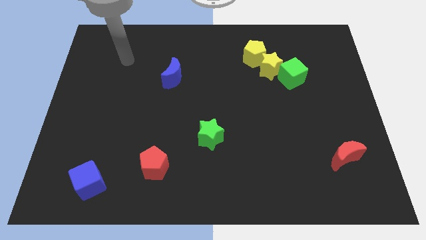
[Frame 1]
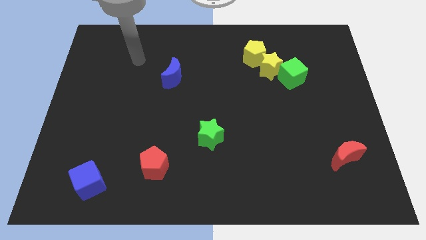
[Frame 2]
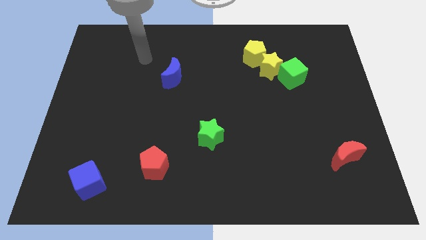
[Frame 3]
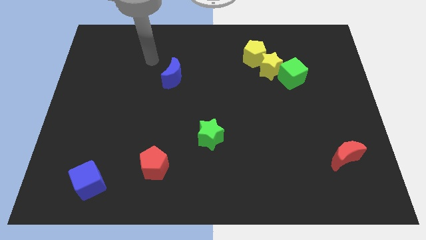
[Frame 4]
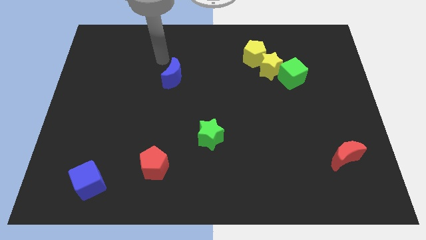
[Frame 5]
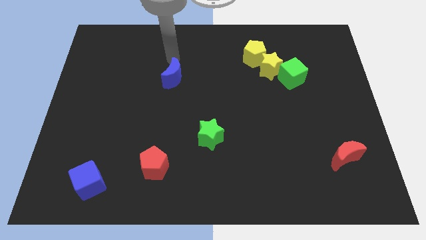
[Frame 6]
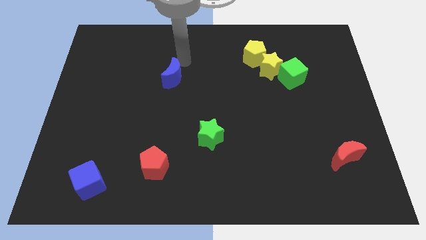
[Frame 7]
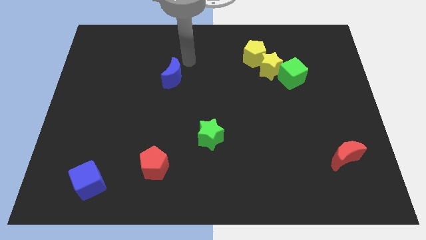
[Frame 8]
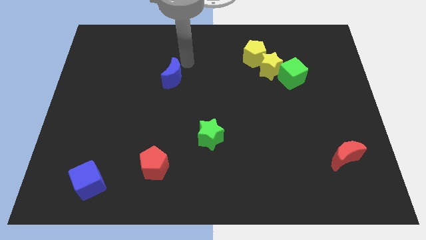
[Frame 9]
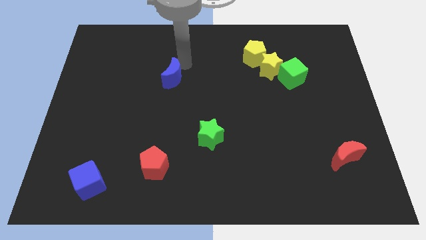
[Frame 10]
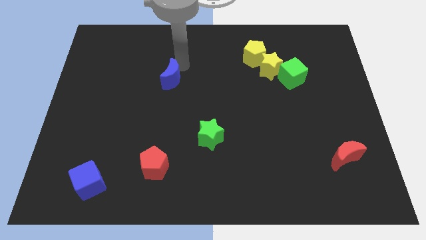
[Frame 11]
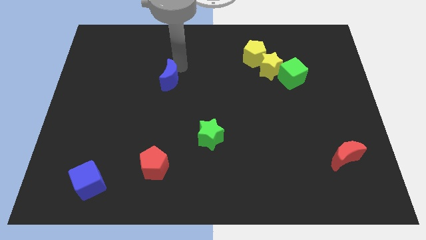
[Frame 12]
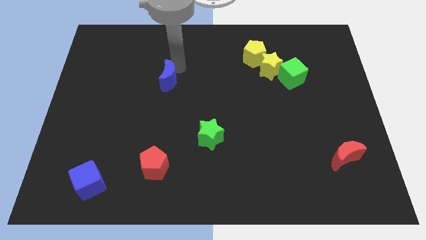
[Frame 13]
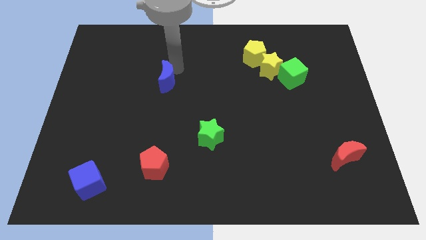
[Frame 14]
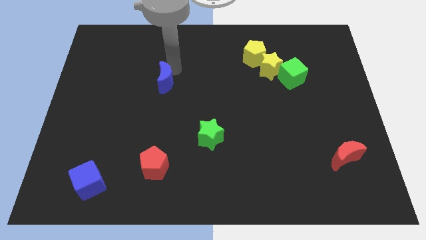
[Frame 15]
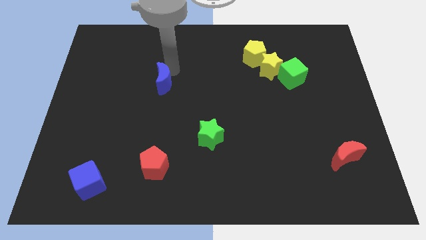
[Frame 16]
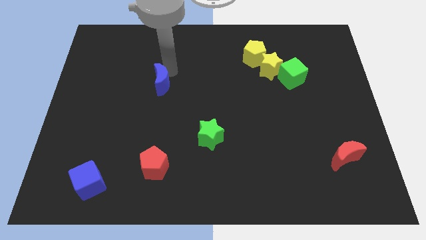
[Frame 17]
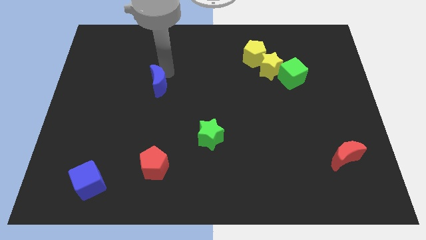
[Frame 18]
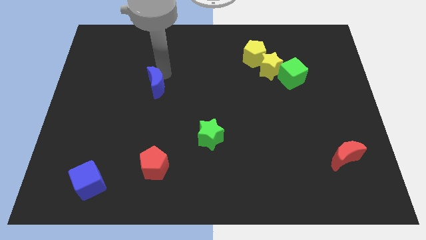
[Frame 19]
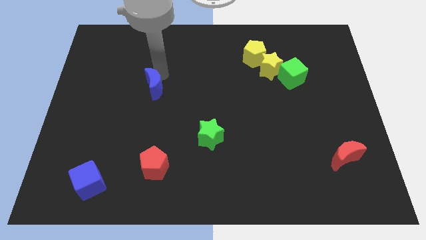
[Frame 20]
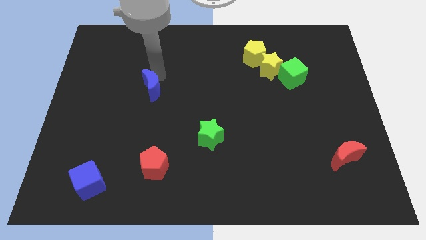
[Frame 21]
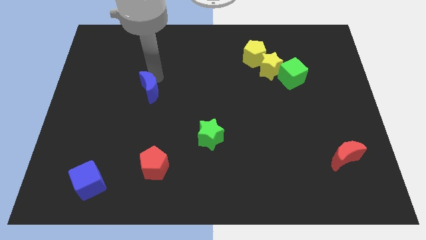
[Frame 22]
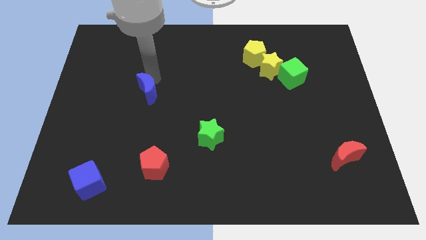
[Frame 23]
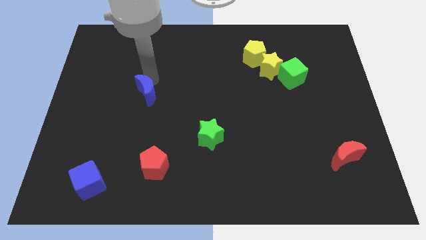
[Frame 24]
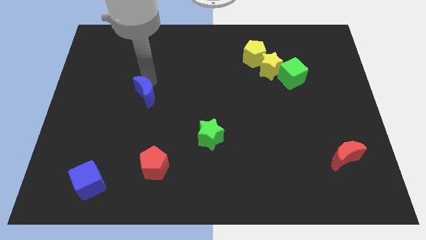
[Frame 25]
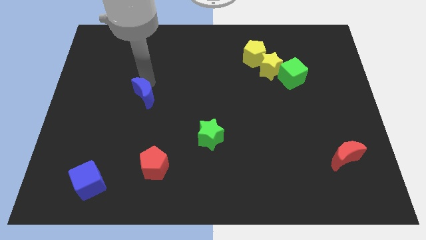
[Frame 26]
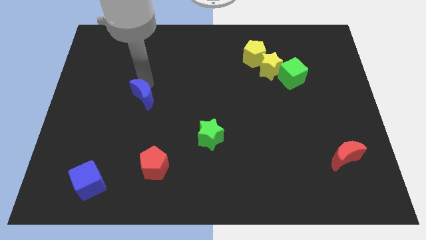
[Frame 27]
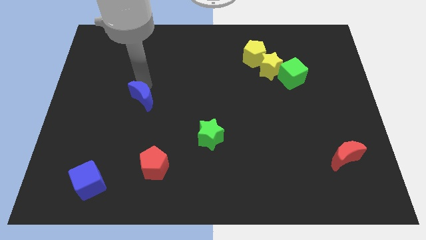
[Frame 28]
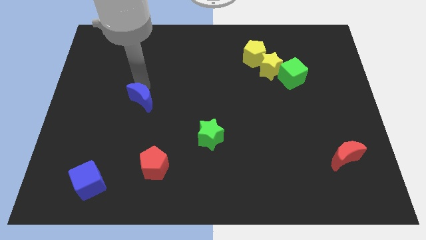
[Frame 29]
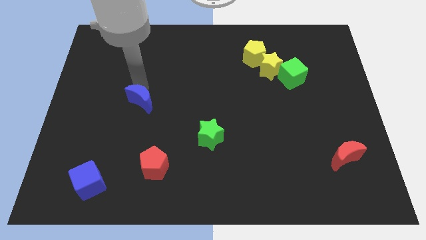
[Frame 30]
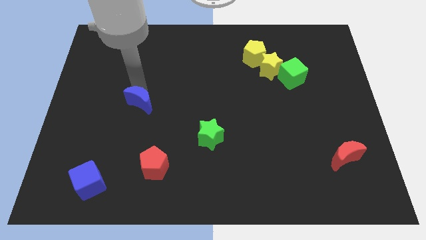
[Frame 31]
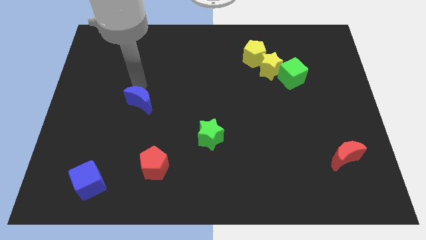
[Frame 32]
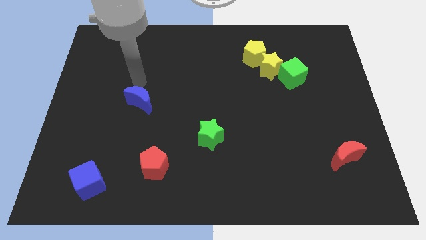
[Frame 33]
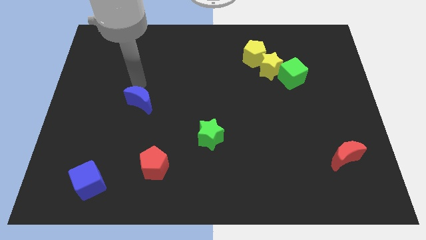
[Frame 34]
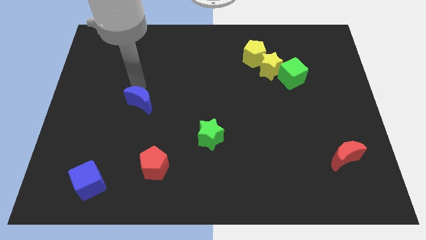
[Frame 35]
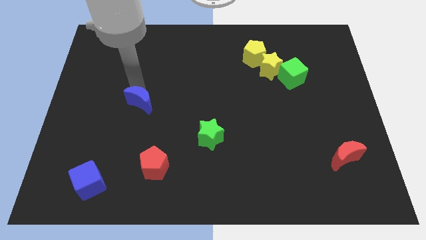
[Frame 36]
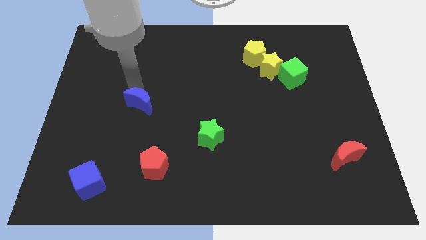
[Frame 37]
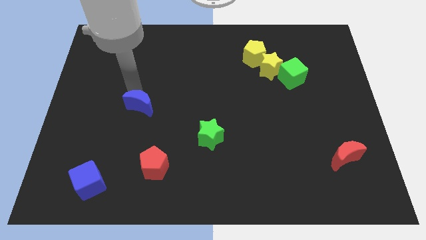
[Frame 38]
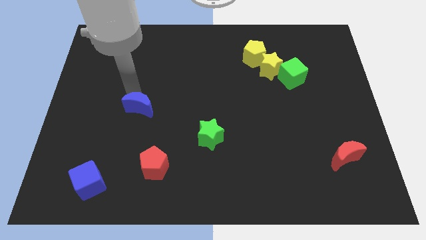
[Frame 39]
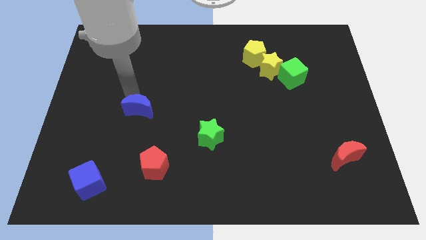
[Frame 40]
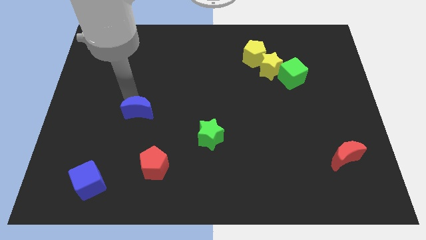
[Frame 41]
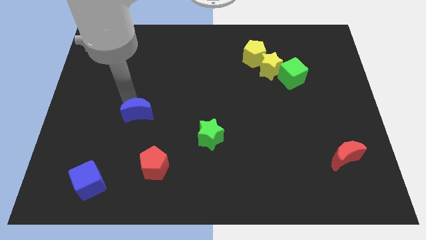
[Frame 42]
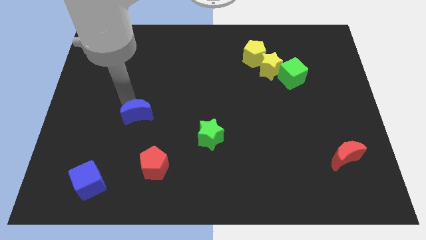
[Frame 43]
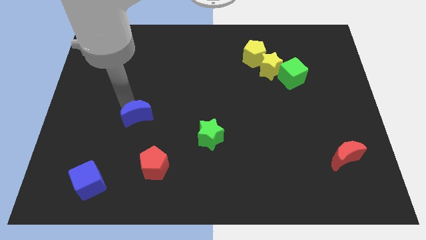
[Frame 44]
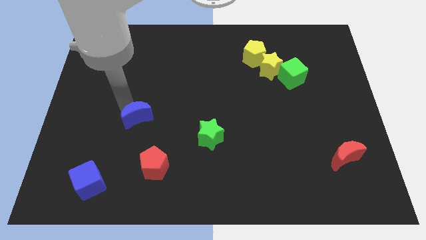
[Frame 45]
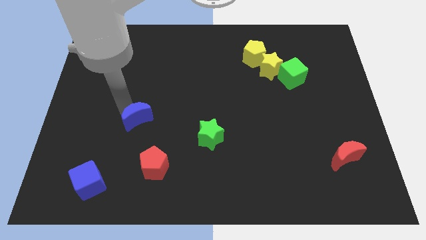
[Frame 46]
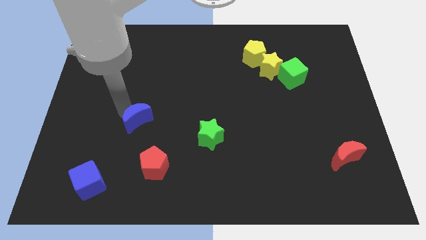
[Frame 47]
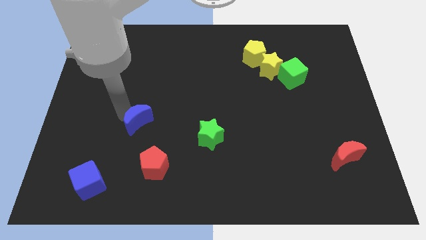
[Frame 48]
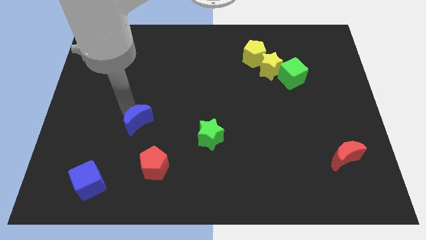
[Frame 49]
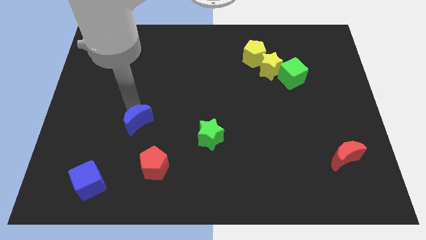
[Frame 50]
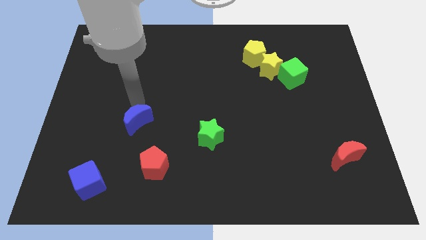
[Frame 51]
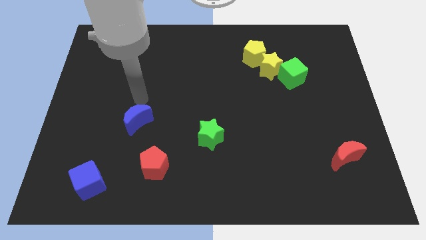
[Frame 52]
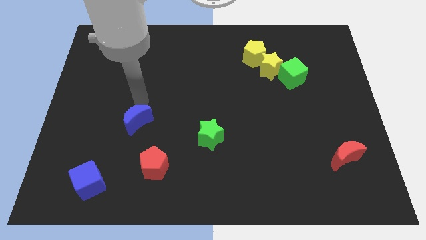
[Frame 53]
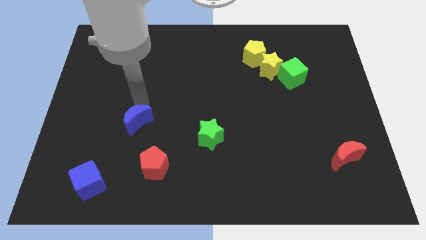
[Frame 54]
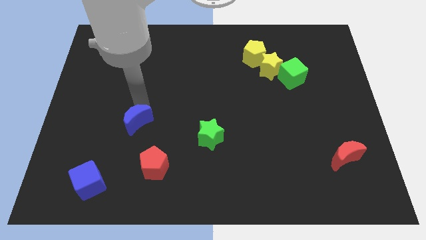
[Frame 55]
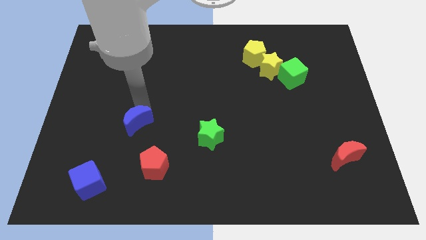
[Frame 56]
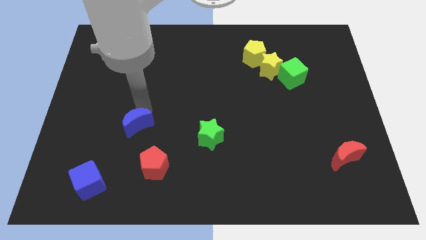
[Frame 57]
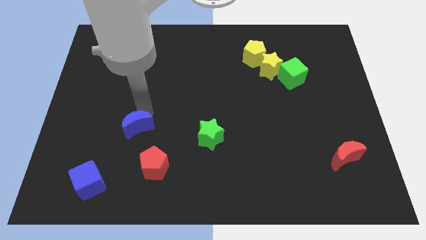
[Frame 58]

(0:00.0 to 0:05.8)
put the blue moon to the top left side of the red pentagon

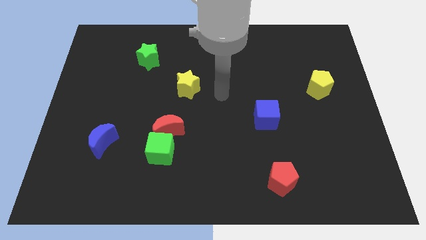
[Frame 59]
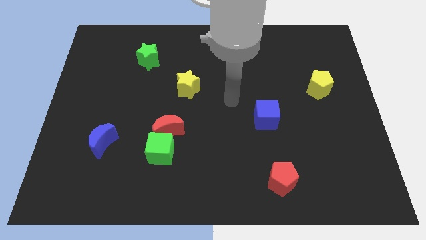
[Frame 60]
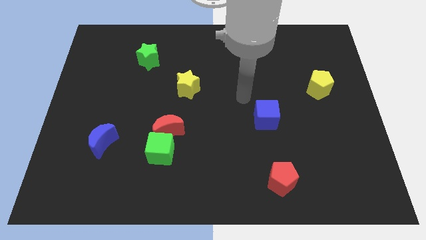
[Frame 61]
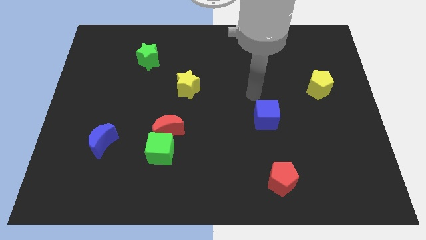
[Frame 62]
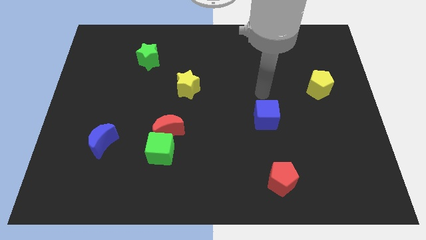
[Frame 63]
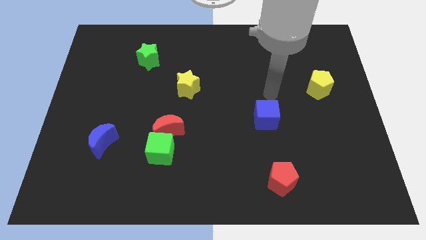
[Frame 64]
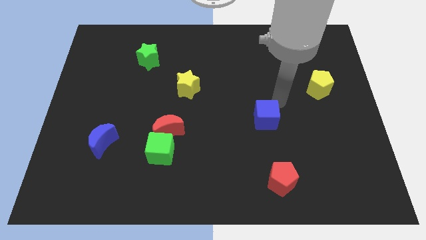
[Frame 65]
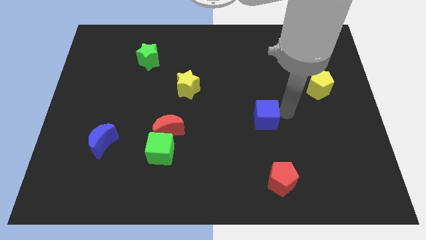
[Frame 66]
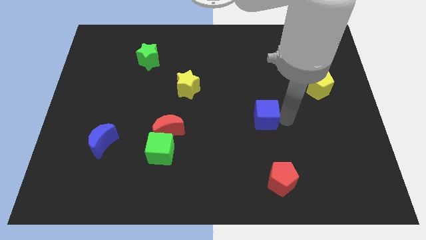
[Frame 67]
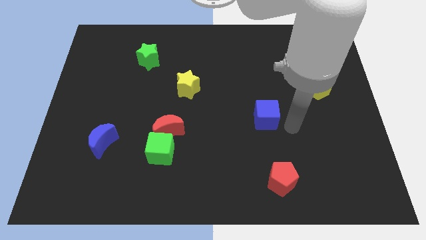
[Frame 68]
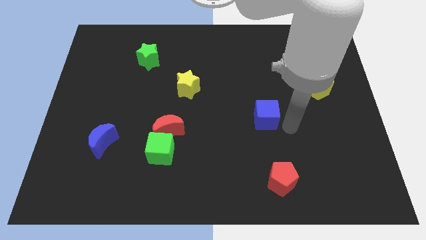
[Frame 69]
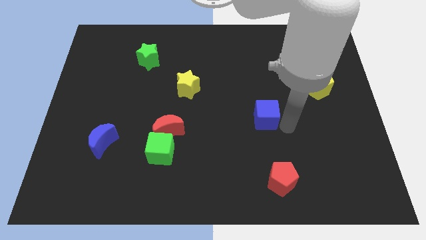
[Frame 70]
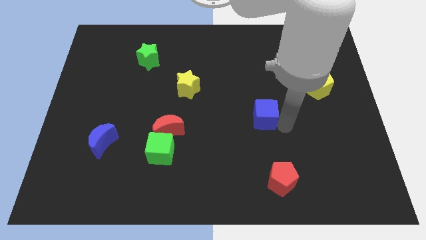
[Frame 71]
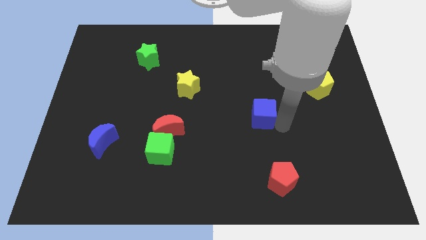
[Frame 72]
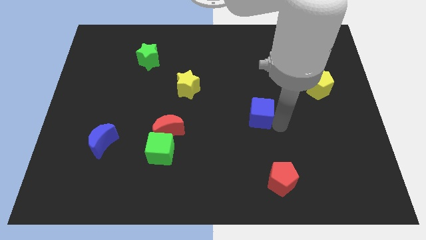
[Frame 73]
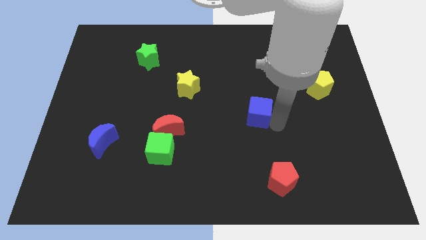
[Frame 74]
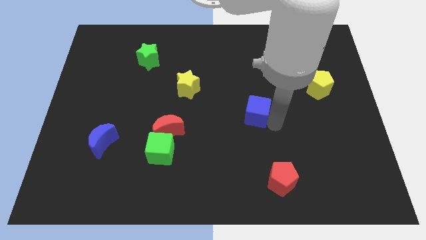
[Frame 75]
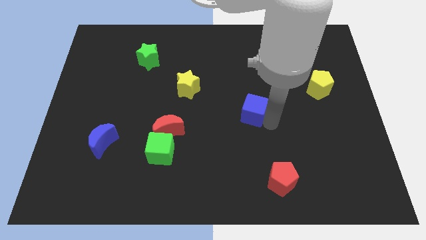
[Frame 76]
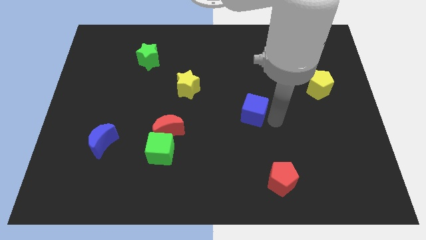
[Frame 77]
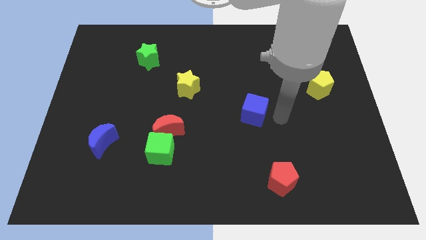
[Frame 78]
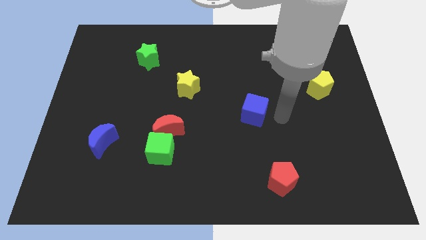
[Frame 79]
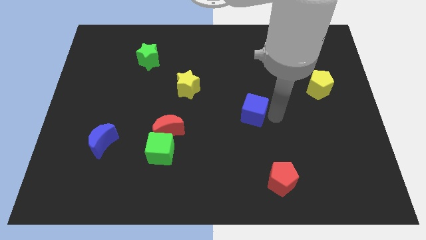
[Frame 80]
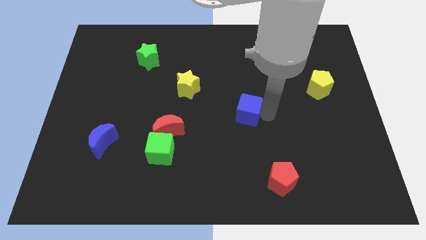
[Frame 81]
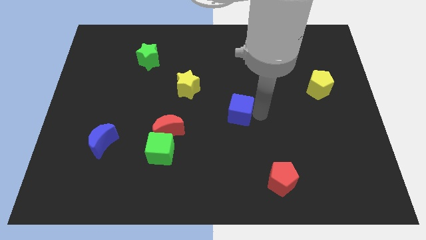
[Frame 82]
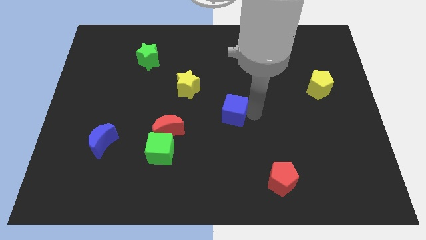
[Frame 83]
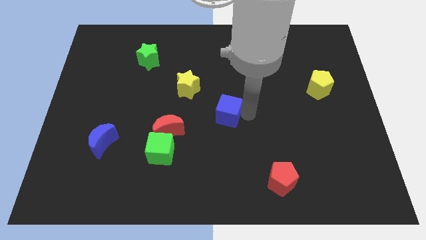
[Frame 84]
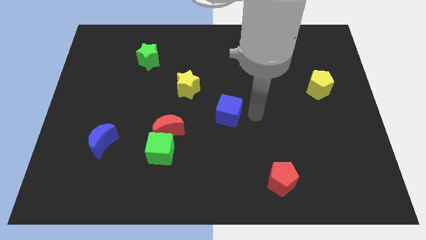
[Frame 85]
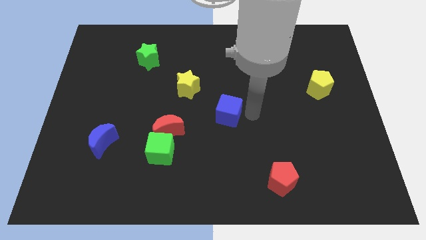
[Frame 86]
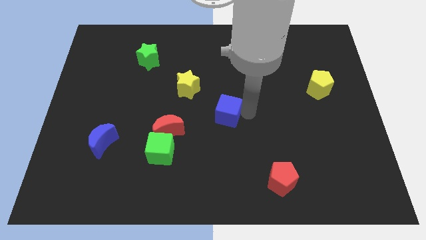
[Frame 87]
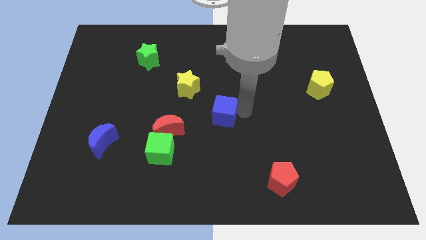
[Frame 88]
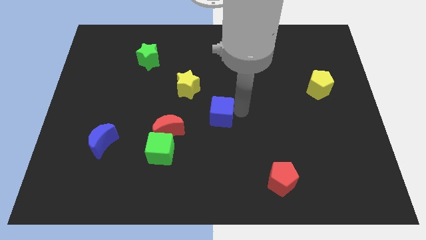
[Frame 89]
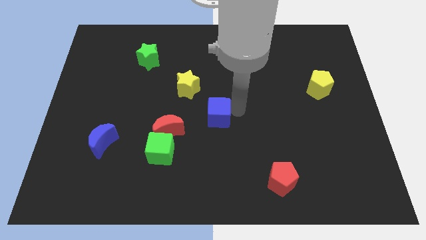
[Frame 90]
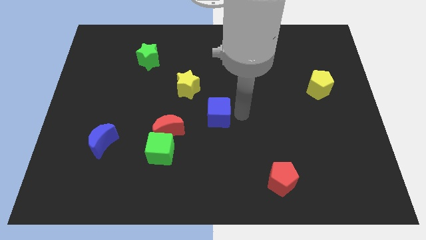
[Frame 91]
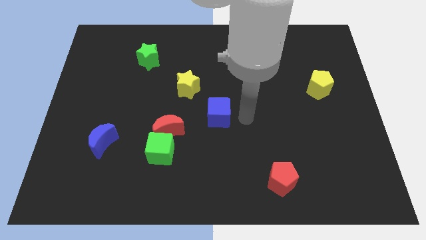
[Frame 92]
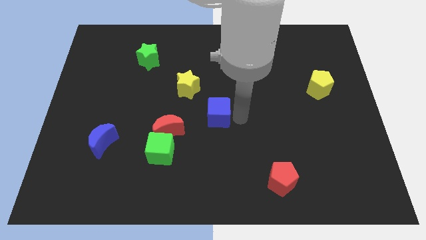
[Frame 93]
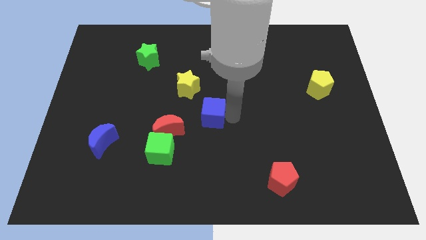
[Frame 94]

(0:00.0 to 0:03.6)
put the blue cube to the top right side of the red moon
